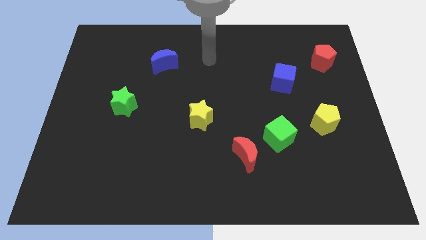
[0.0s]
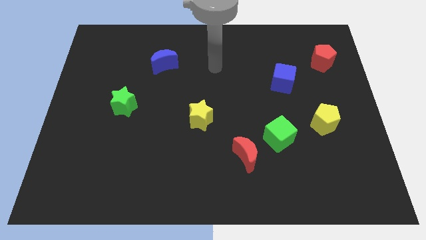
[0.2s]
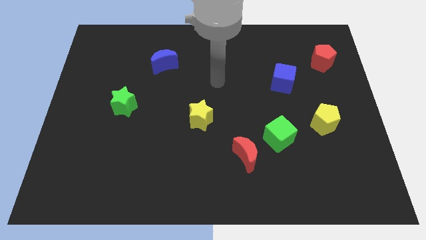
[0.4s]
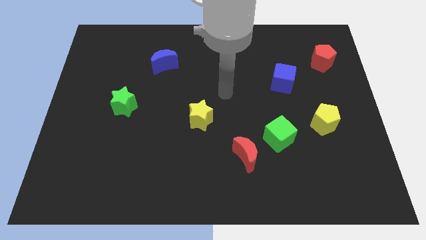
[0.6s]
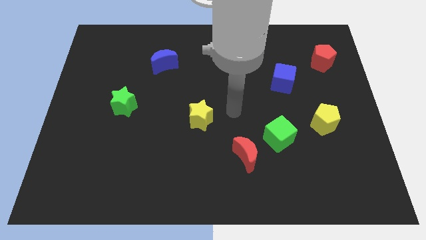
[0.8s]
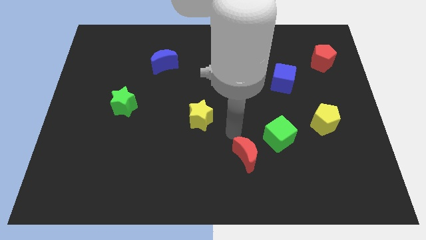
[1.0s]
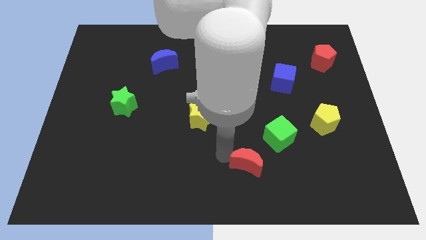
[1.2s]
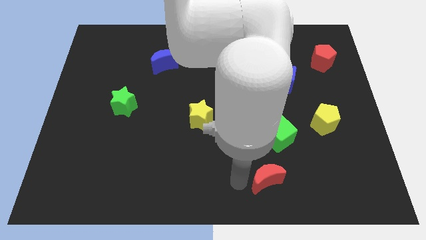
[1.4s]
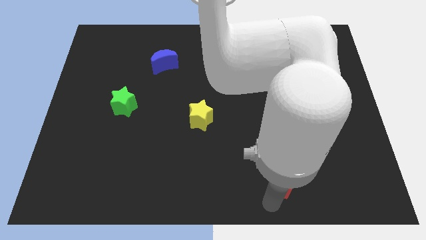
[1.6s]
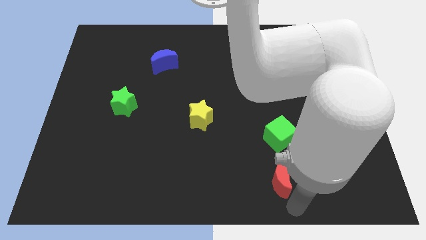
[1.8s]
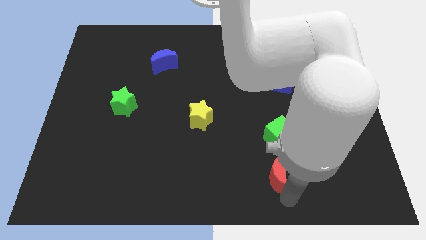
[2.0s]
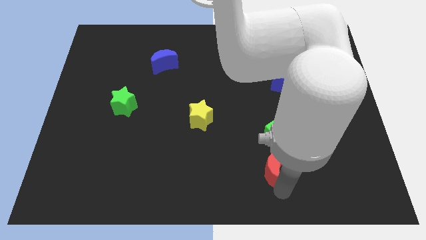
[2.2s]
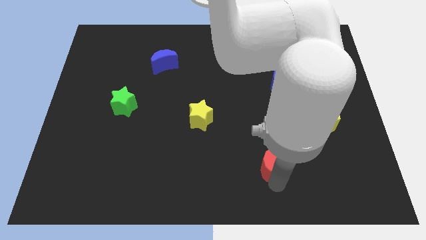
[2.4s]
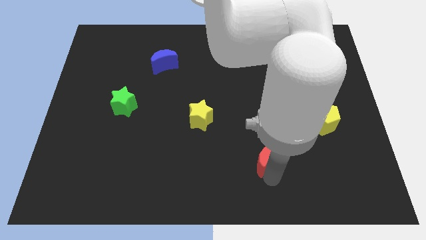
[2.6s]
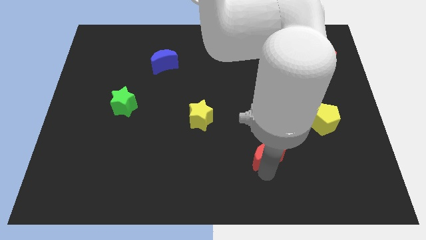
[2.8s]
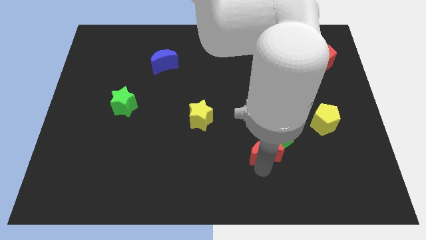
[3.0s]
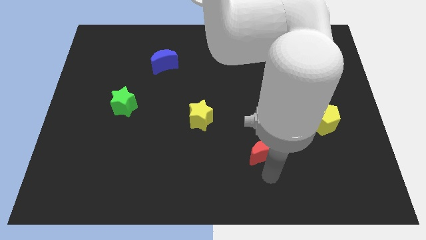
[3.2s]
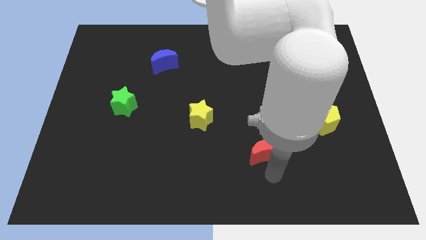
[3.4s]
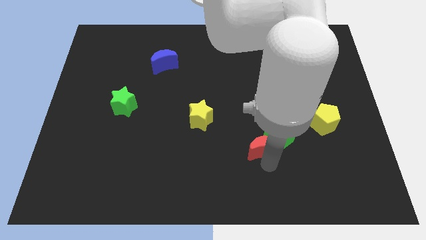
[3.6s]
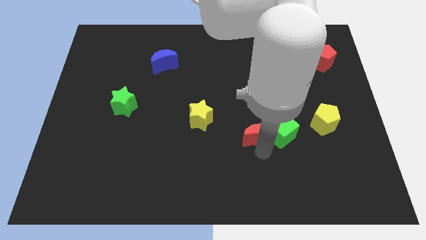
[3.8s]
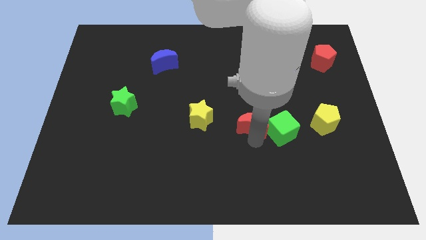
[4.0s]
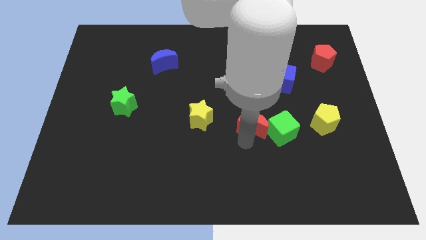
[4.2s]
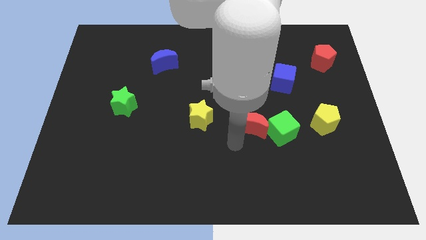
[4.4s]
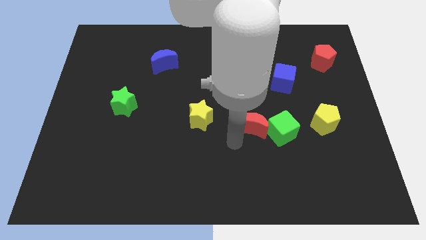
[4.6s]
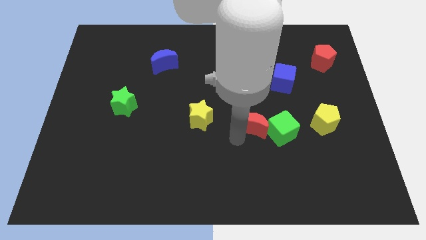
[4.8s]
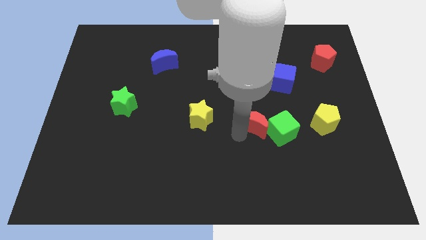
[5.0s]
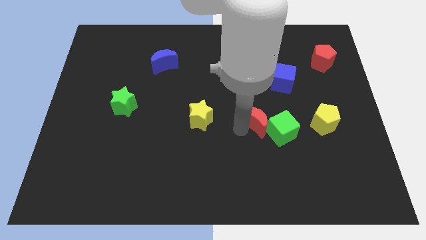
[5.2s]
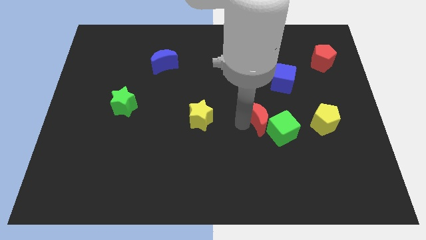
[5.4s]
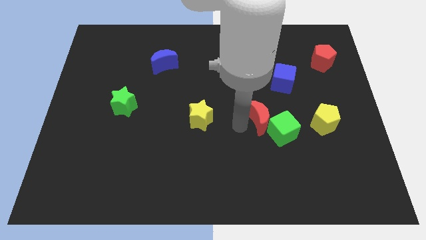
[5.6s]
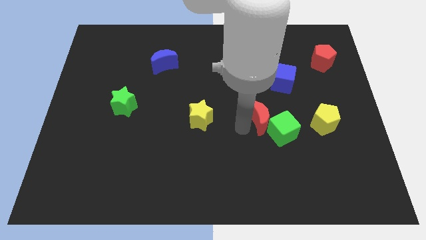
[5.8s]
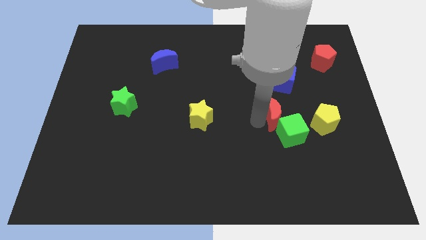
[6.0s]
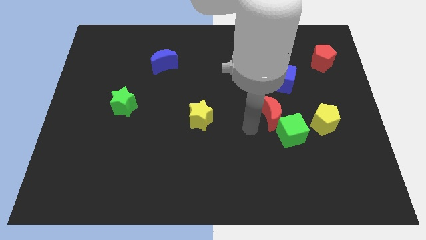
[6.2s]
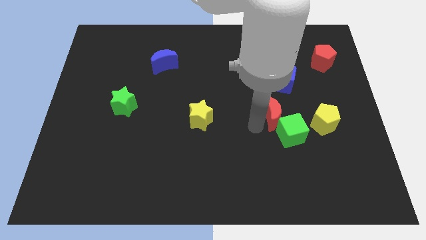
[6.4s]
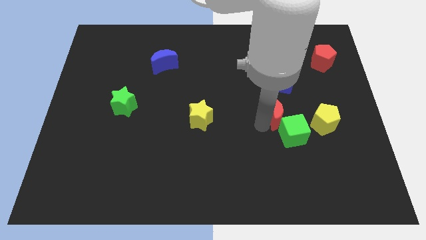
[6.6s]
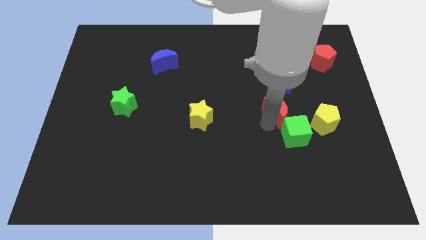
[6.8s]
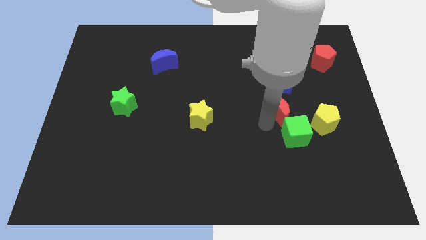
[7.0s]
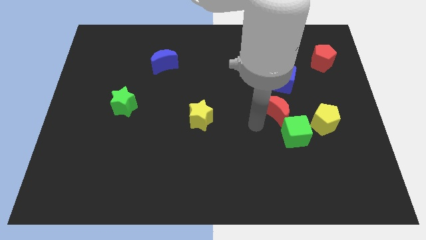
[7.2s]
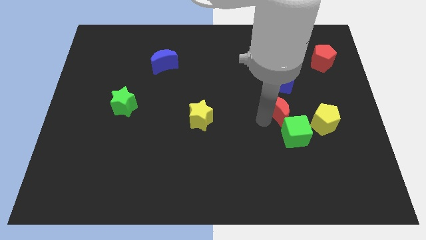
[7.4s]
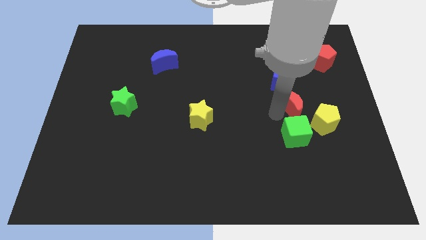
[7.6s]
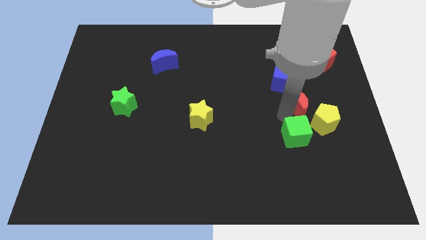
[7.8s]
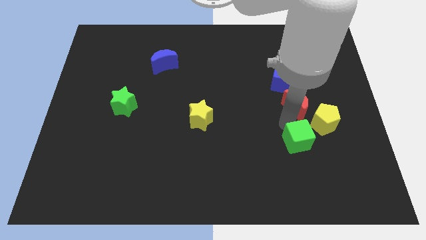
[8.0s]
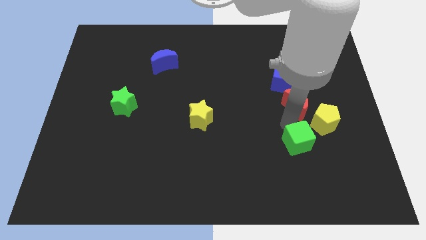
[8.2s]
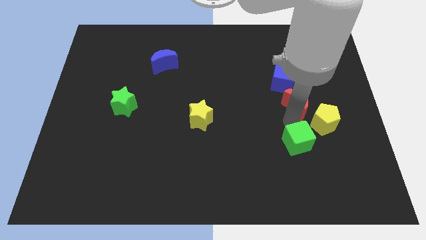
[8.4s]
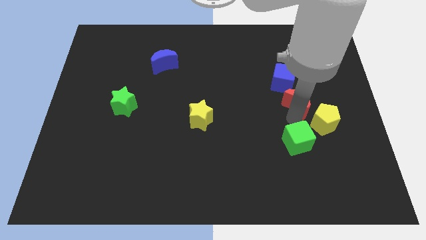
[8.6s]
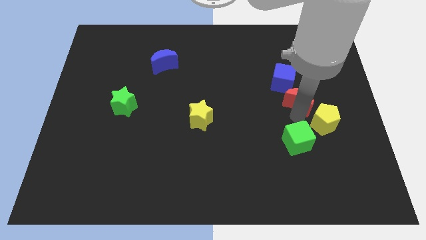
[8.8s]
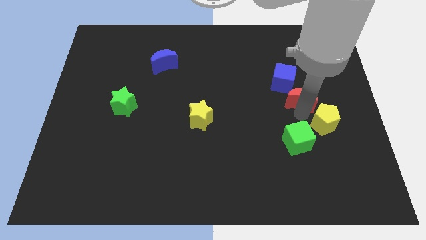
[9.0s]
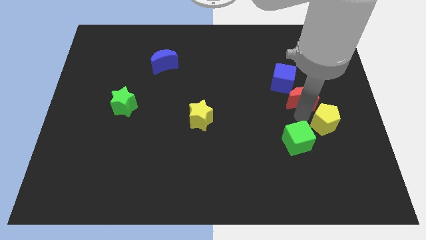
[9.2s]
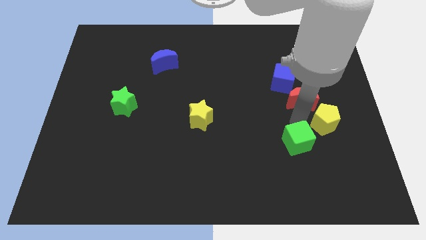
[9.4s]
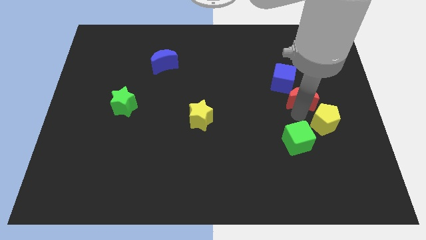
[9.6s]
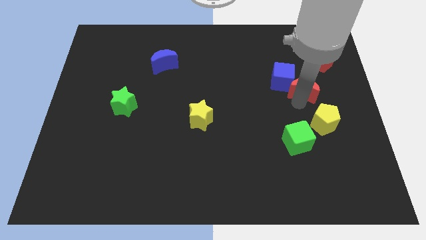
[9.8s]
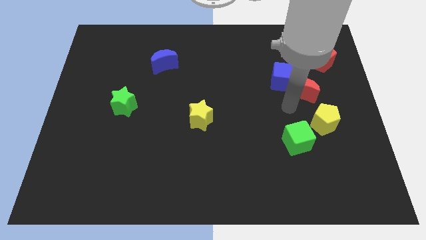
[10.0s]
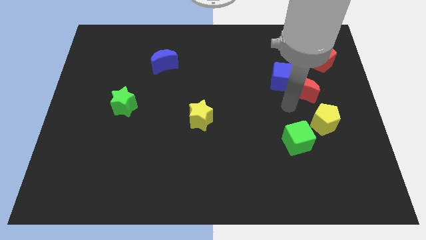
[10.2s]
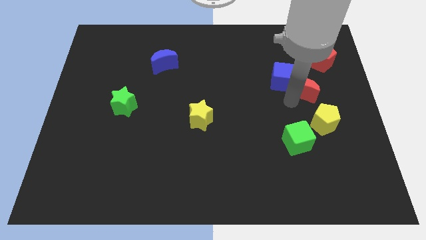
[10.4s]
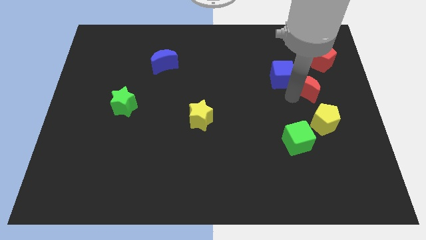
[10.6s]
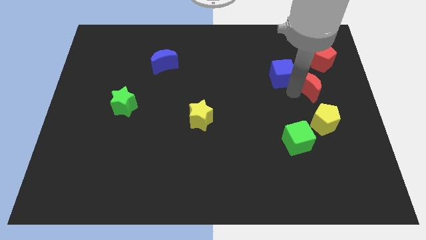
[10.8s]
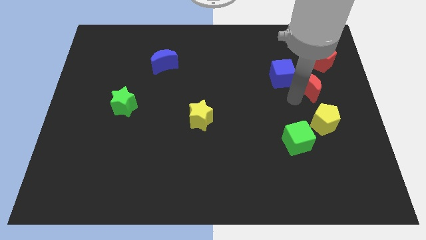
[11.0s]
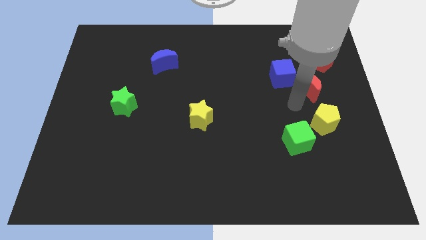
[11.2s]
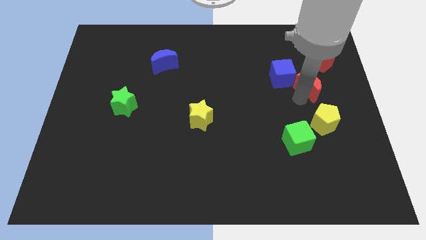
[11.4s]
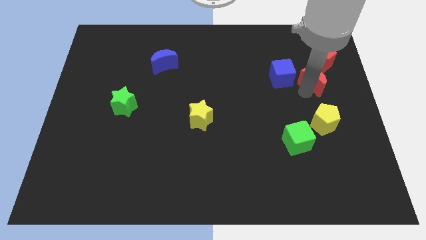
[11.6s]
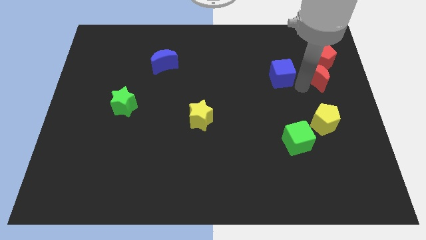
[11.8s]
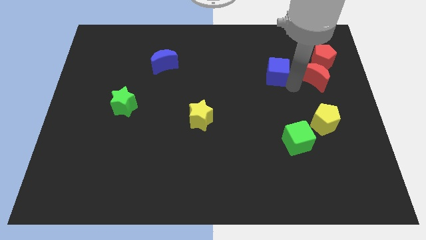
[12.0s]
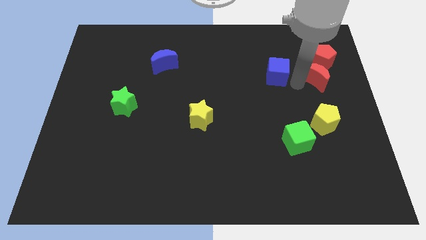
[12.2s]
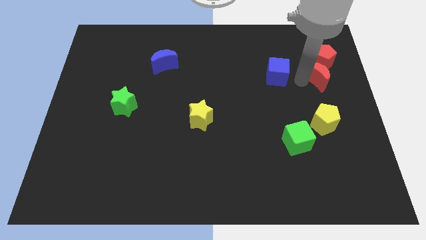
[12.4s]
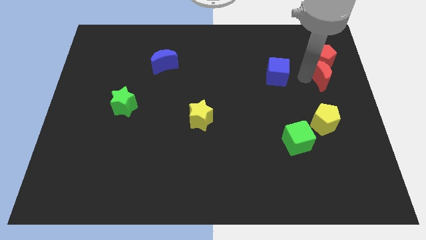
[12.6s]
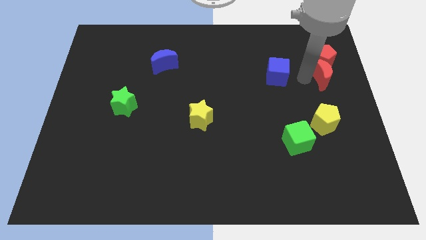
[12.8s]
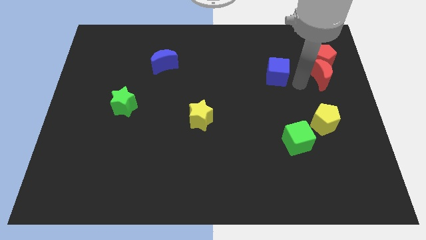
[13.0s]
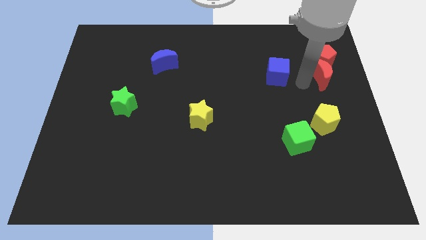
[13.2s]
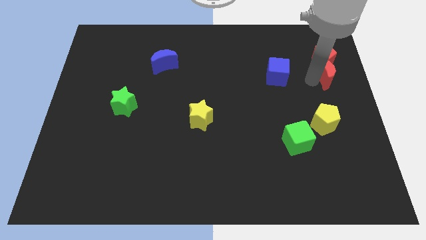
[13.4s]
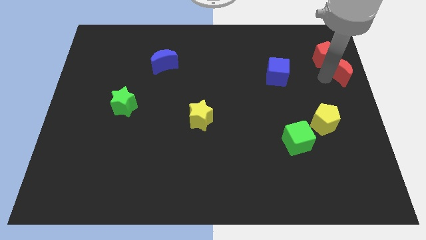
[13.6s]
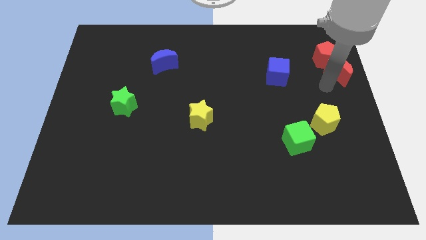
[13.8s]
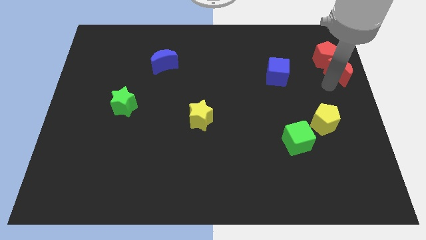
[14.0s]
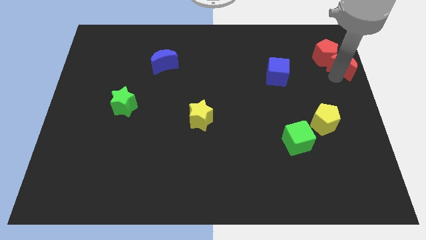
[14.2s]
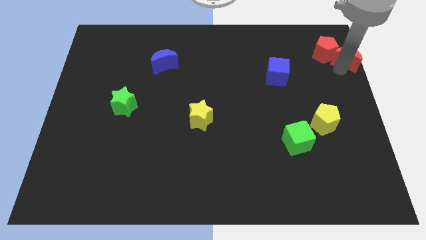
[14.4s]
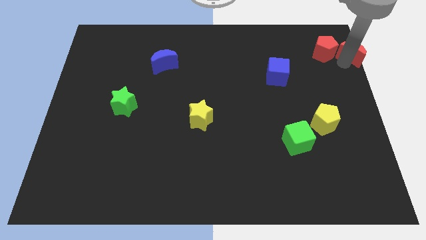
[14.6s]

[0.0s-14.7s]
put the red moon to the top right corner
